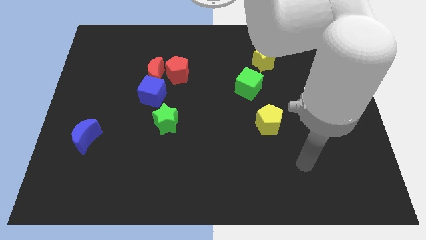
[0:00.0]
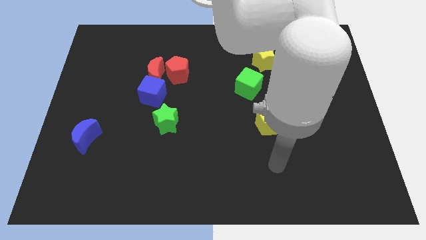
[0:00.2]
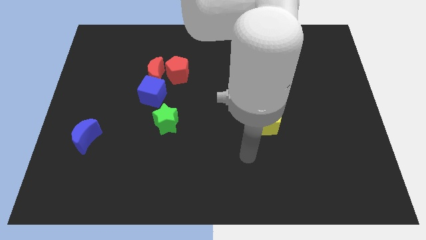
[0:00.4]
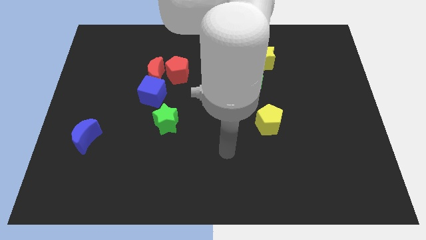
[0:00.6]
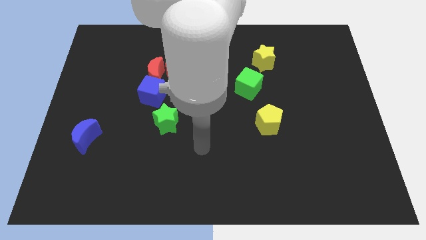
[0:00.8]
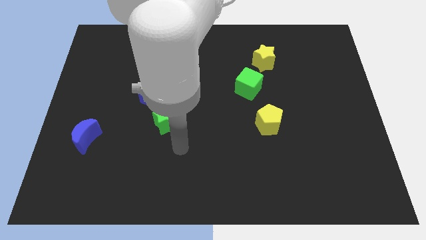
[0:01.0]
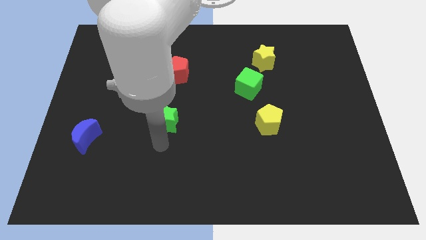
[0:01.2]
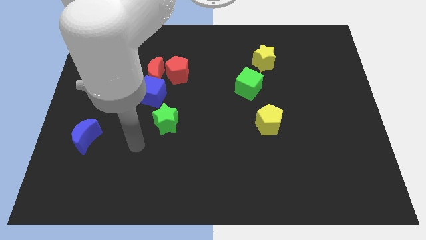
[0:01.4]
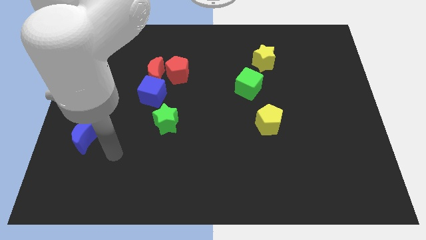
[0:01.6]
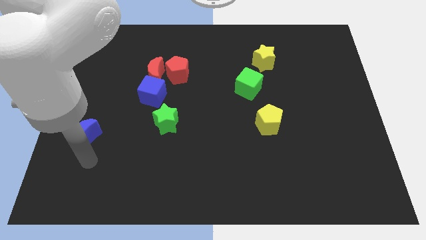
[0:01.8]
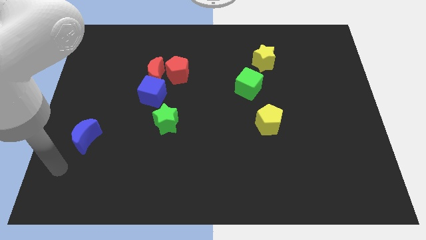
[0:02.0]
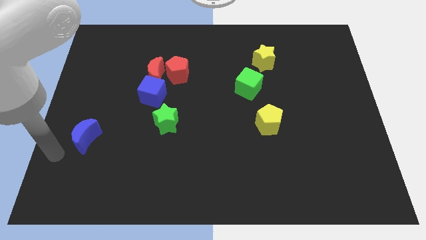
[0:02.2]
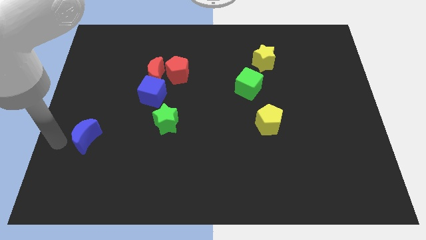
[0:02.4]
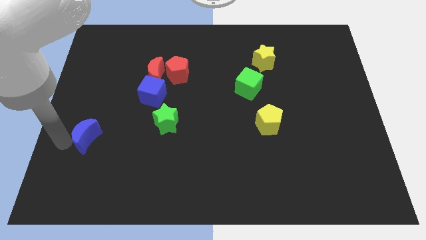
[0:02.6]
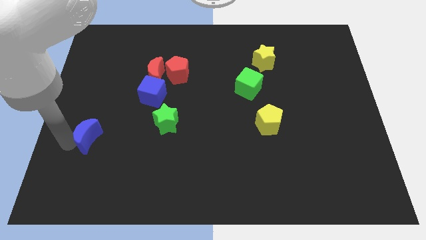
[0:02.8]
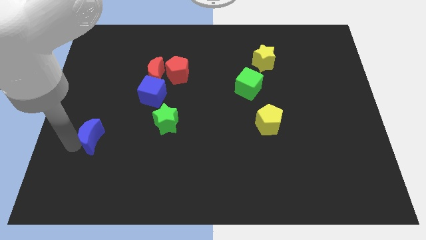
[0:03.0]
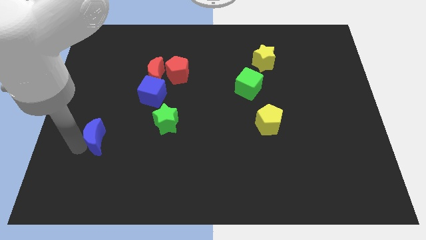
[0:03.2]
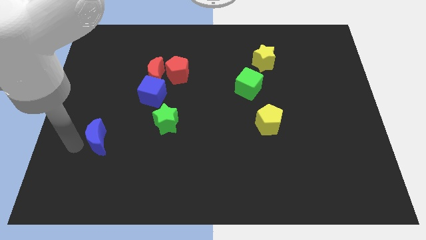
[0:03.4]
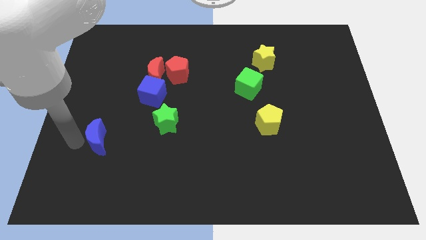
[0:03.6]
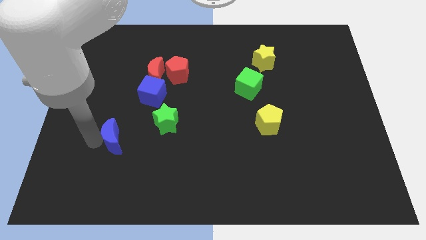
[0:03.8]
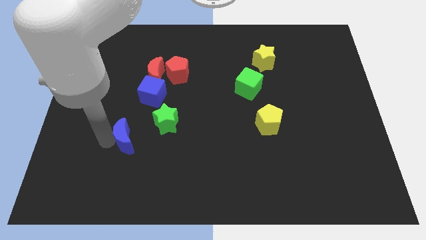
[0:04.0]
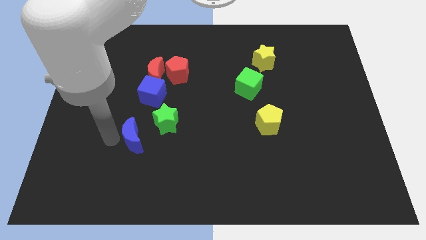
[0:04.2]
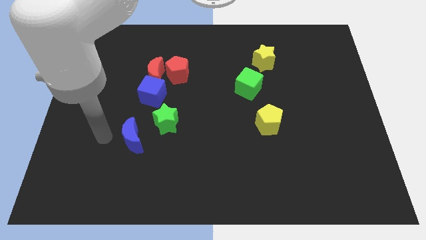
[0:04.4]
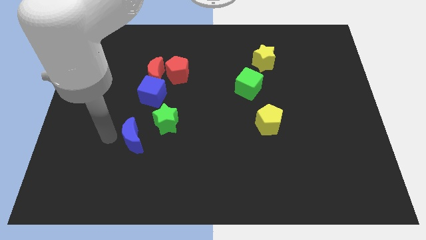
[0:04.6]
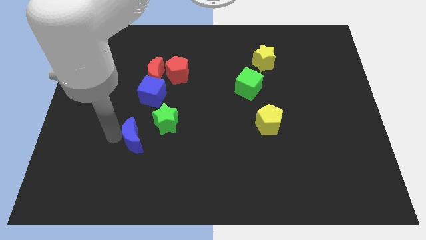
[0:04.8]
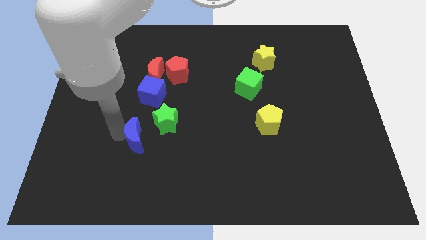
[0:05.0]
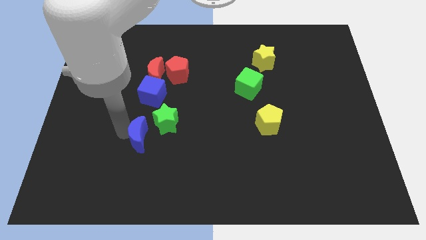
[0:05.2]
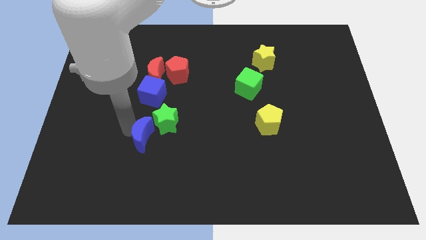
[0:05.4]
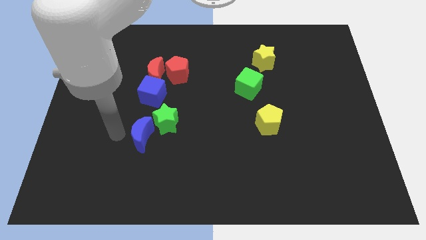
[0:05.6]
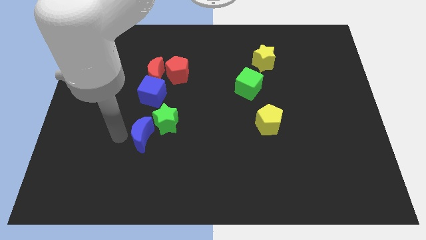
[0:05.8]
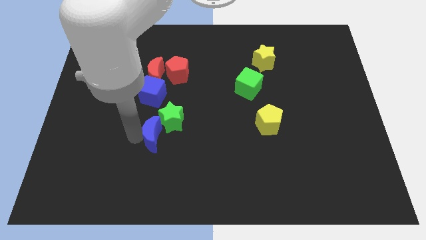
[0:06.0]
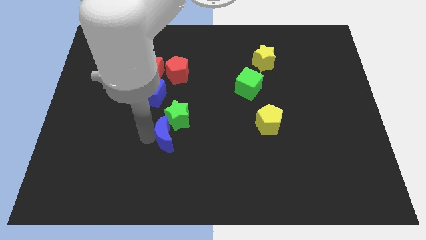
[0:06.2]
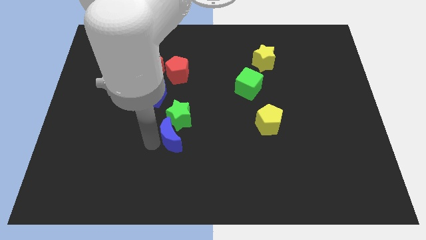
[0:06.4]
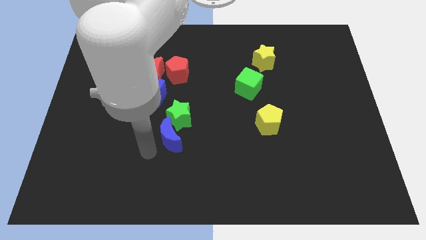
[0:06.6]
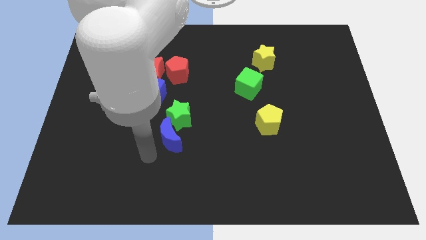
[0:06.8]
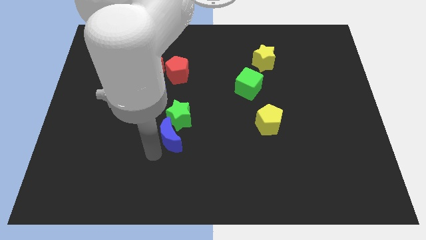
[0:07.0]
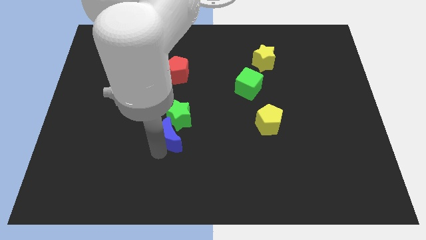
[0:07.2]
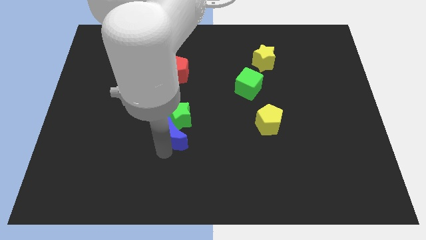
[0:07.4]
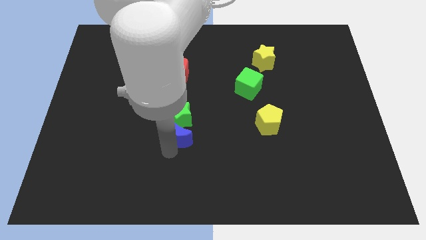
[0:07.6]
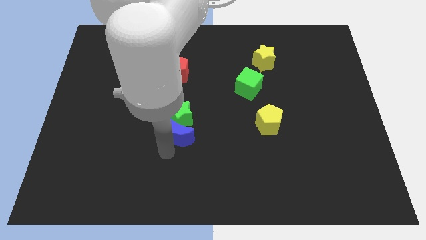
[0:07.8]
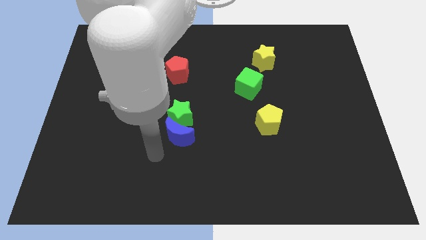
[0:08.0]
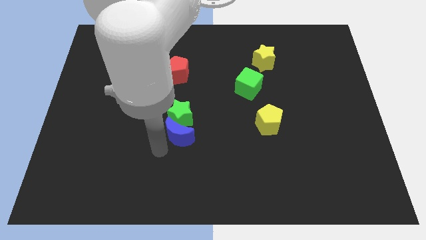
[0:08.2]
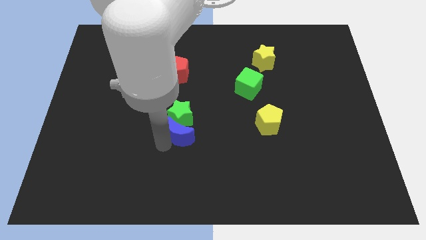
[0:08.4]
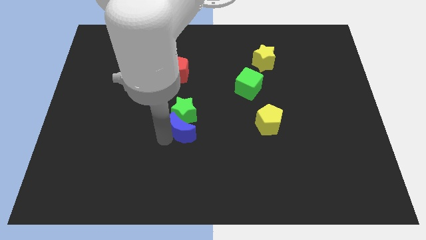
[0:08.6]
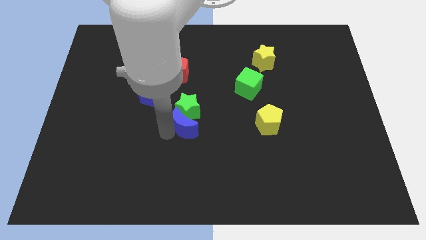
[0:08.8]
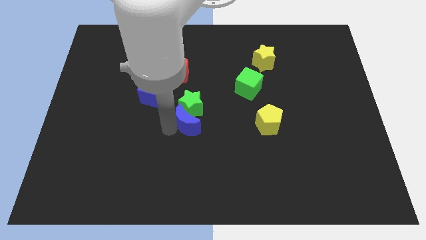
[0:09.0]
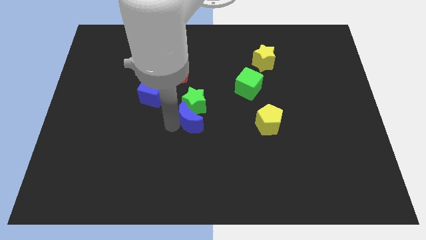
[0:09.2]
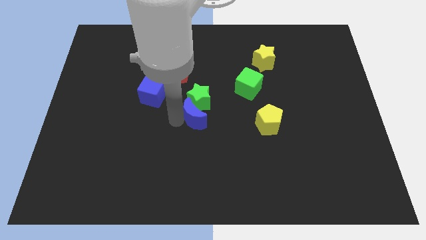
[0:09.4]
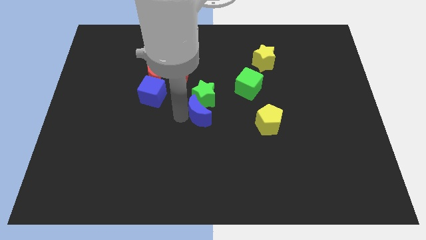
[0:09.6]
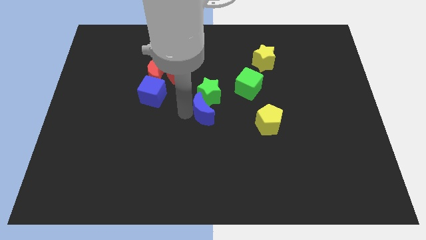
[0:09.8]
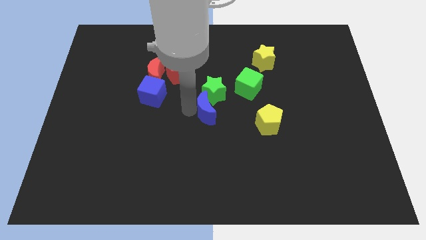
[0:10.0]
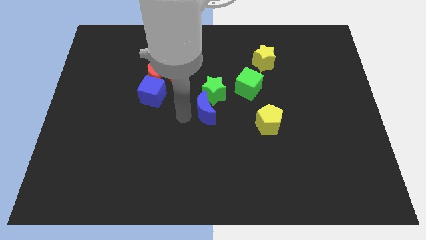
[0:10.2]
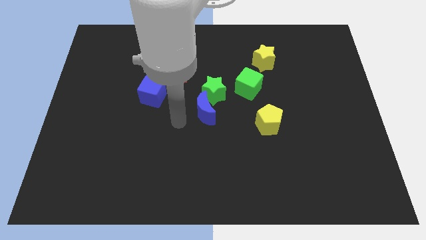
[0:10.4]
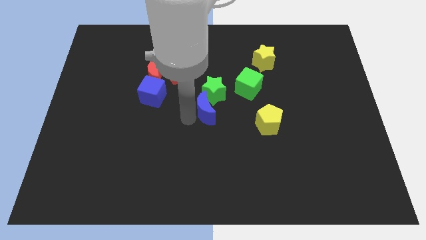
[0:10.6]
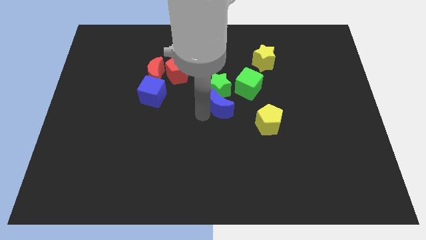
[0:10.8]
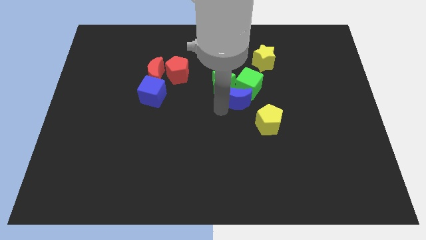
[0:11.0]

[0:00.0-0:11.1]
put the blue moon next to the green cube

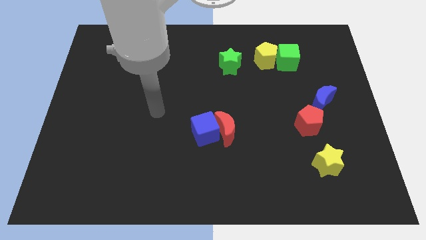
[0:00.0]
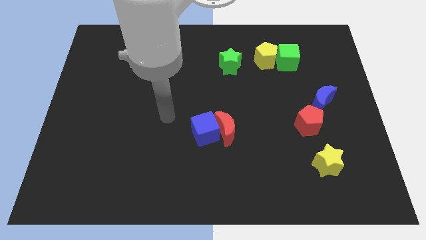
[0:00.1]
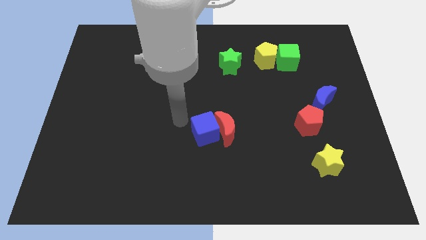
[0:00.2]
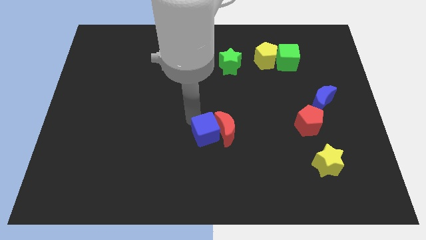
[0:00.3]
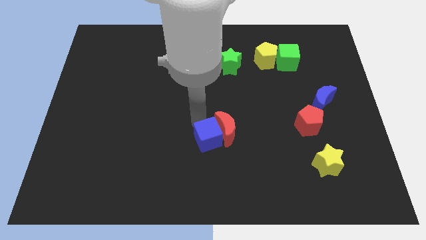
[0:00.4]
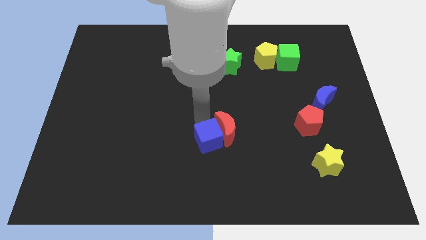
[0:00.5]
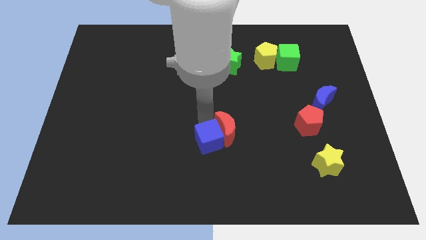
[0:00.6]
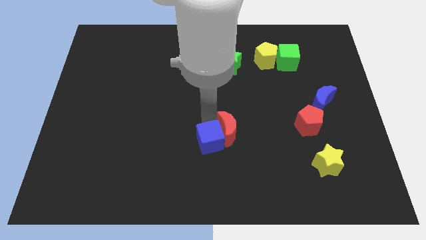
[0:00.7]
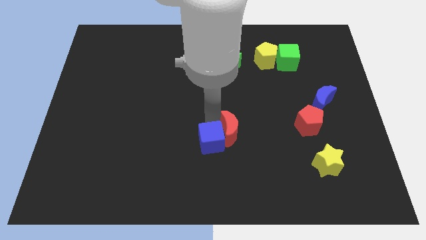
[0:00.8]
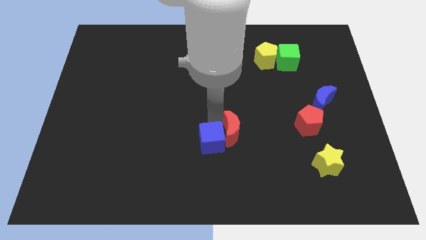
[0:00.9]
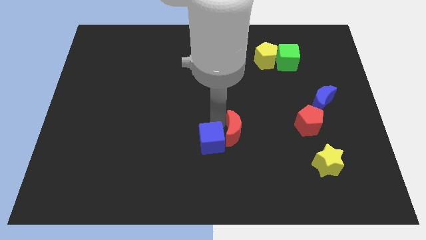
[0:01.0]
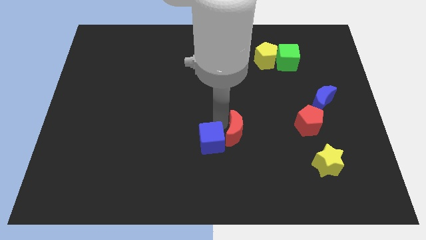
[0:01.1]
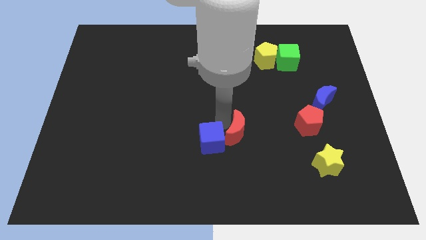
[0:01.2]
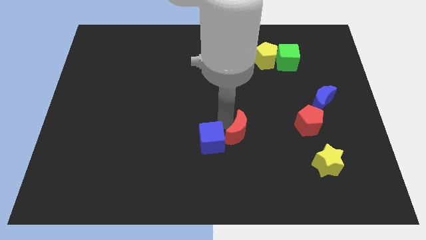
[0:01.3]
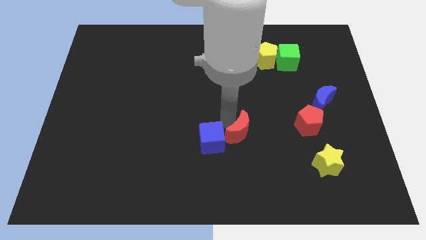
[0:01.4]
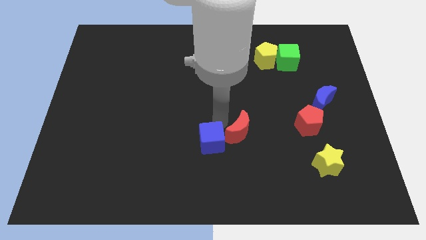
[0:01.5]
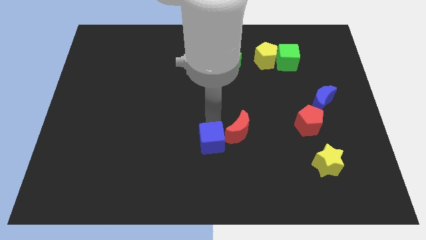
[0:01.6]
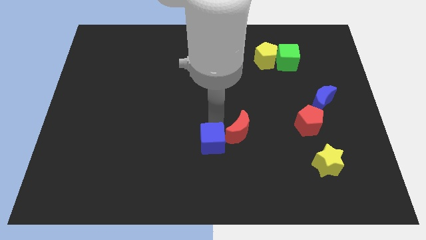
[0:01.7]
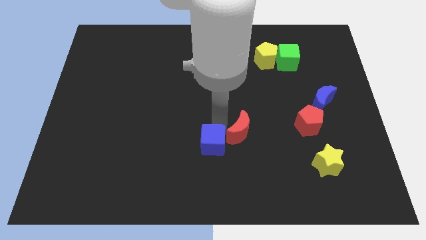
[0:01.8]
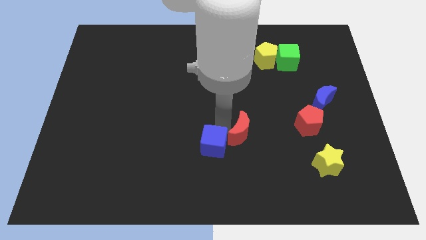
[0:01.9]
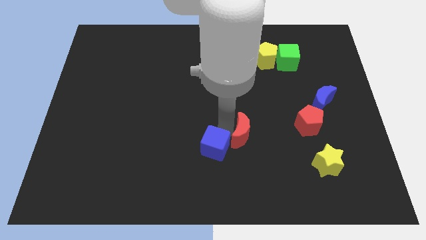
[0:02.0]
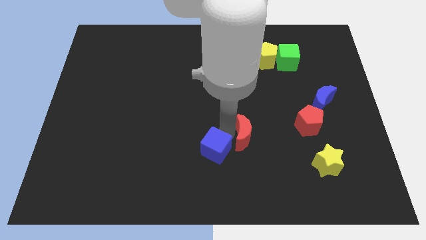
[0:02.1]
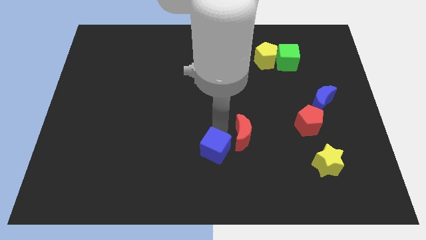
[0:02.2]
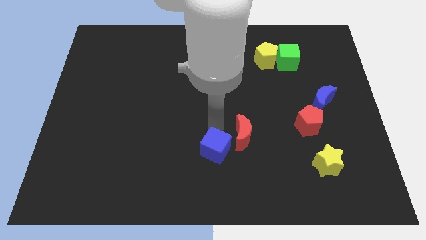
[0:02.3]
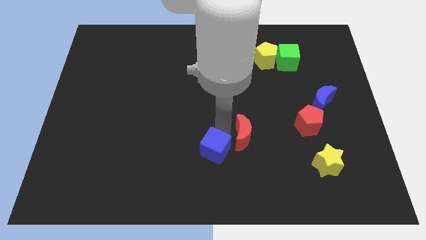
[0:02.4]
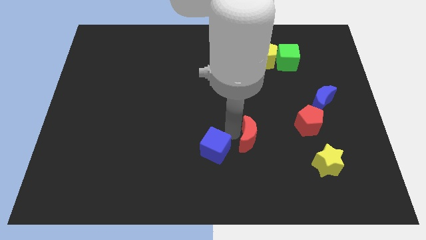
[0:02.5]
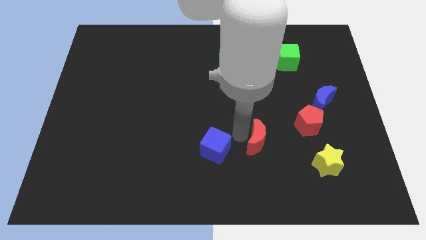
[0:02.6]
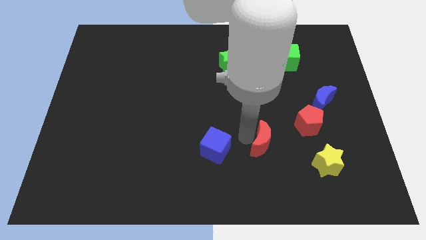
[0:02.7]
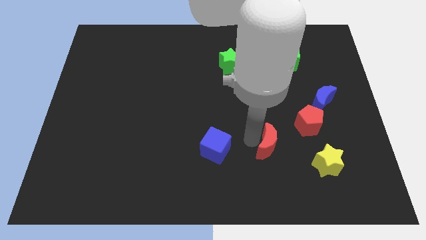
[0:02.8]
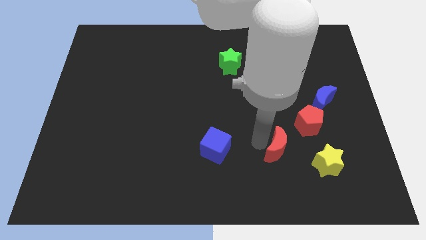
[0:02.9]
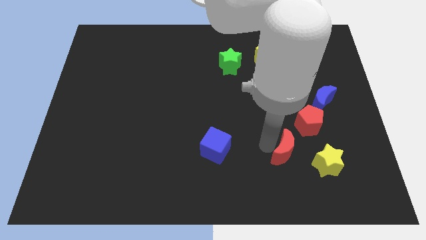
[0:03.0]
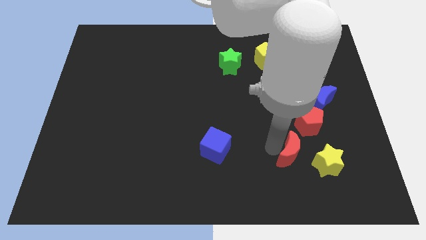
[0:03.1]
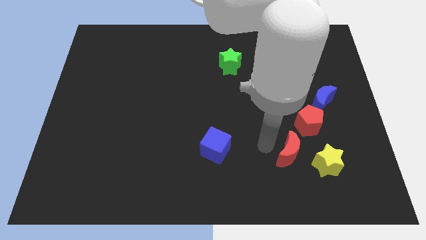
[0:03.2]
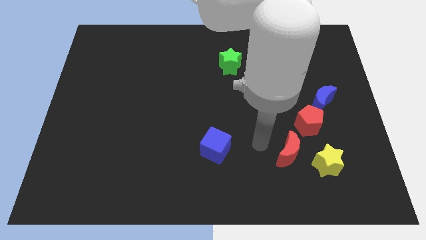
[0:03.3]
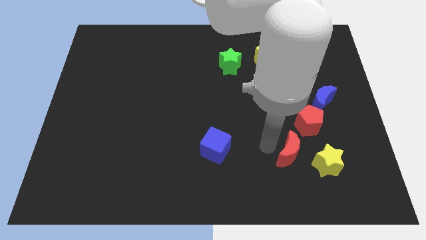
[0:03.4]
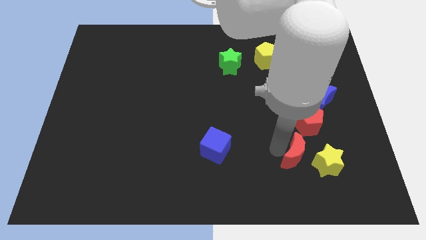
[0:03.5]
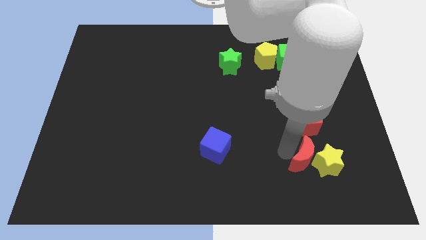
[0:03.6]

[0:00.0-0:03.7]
put the red moon close to the yellow star
